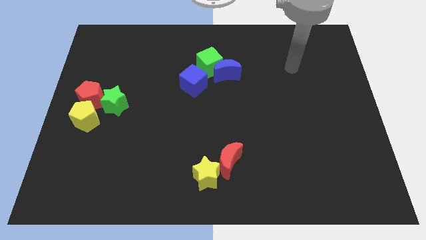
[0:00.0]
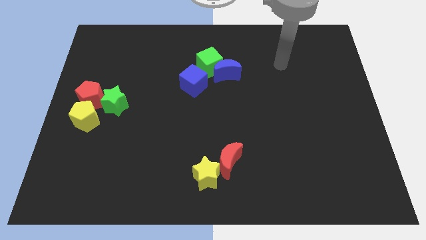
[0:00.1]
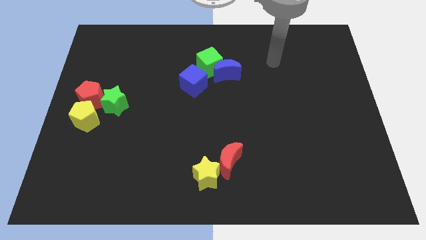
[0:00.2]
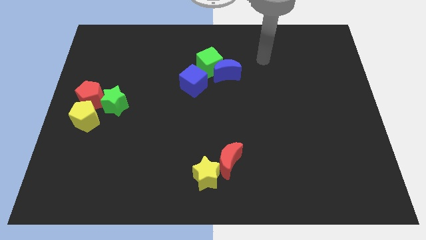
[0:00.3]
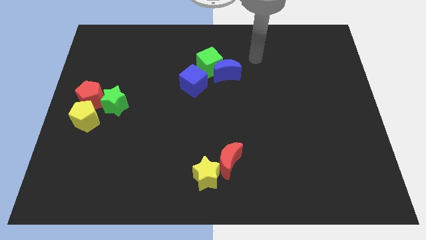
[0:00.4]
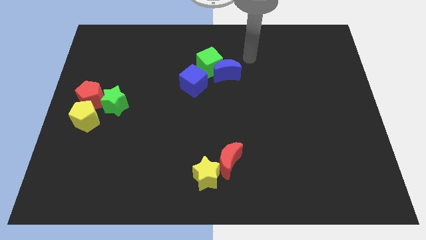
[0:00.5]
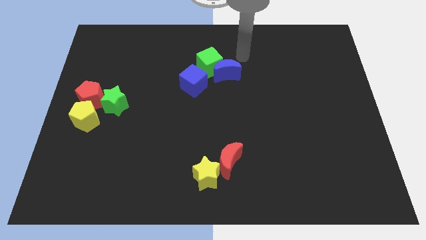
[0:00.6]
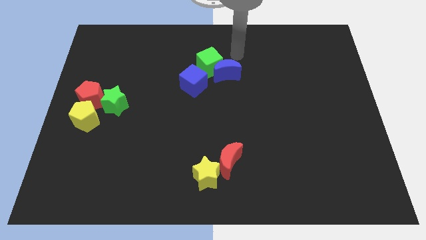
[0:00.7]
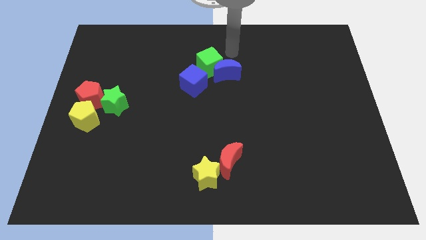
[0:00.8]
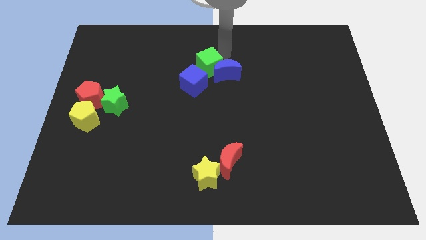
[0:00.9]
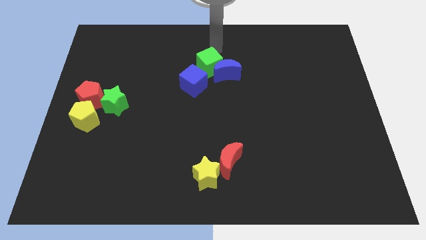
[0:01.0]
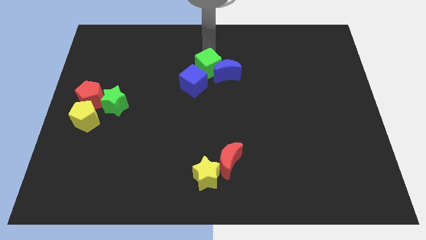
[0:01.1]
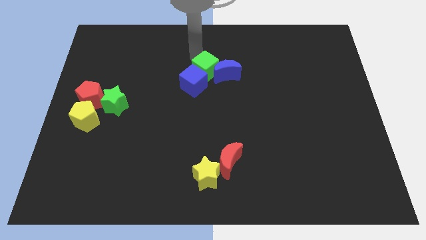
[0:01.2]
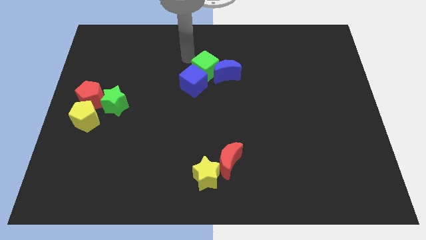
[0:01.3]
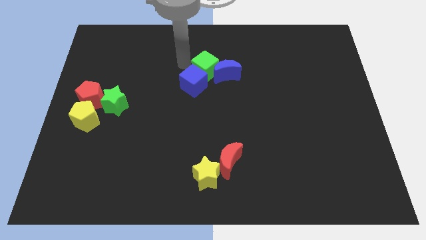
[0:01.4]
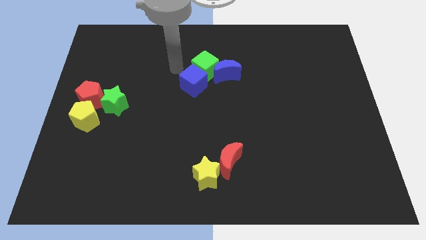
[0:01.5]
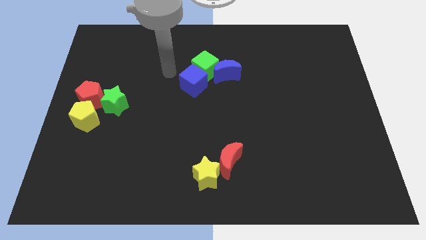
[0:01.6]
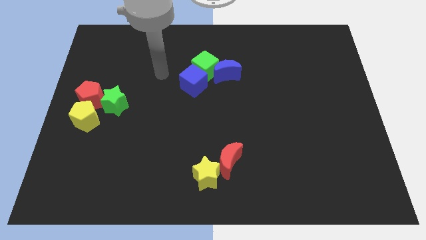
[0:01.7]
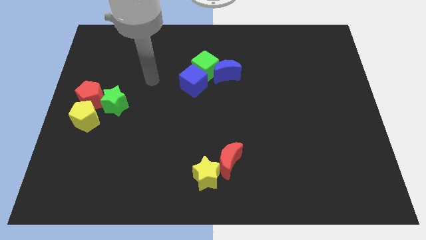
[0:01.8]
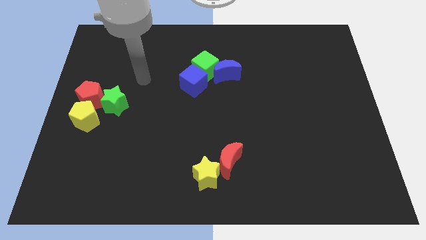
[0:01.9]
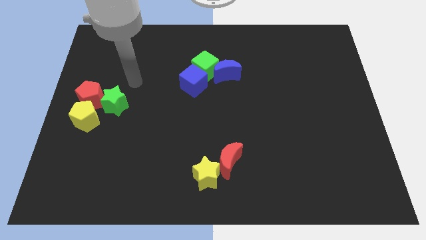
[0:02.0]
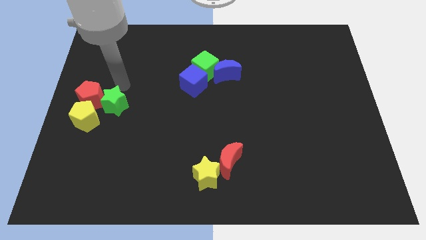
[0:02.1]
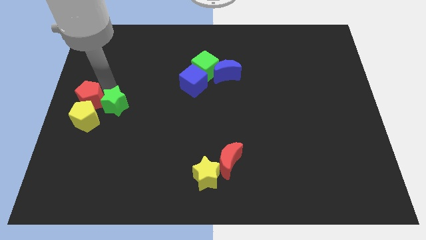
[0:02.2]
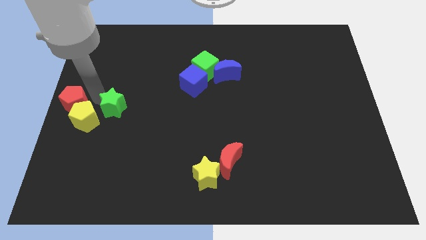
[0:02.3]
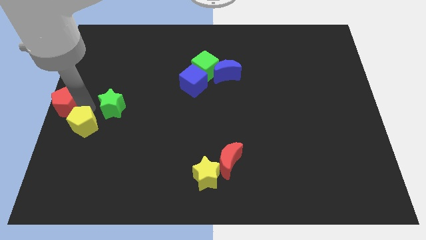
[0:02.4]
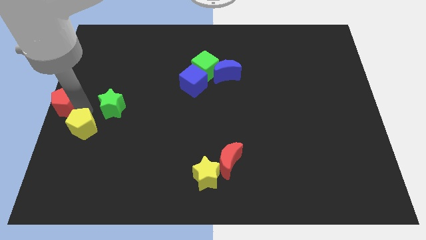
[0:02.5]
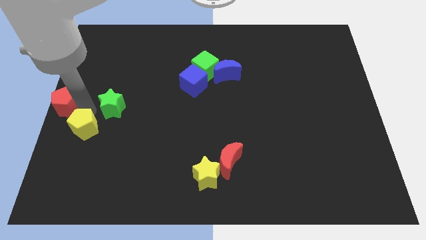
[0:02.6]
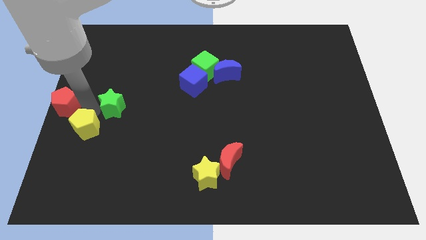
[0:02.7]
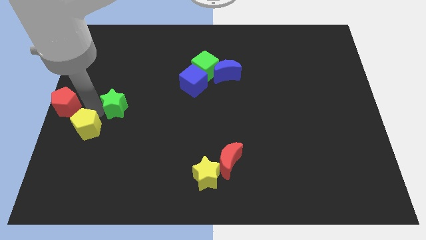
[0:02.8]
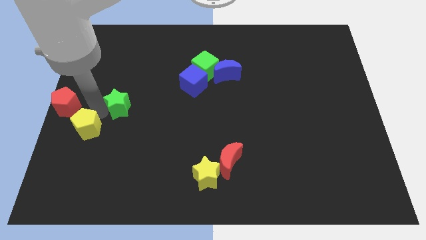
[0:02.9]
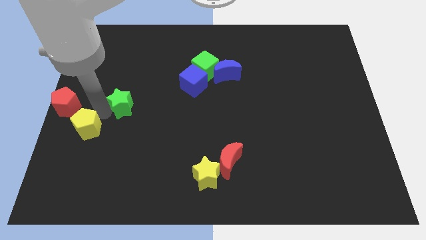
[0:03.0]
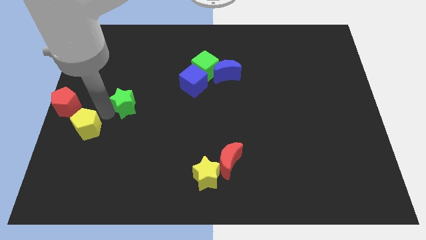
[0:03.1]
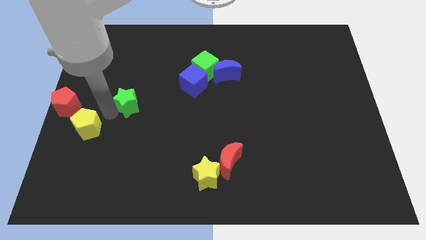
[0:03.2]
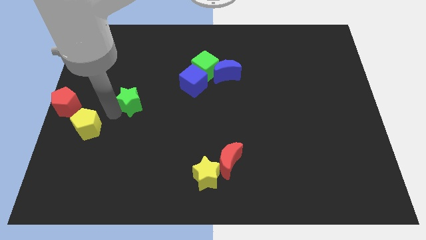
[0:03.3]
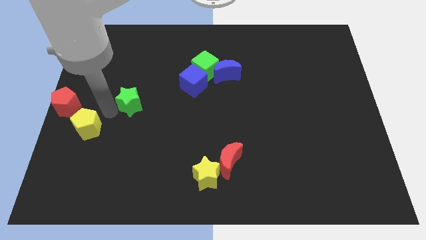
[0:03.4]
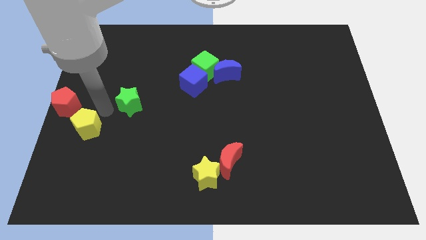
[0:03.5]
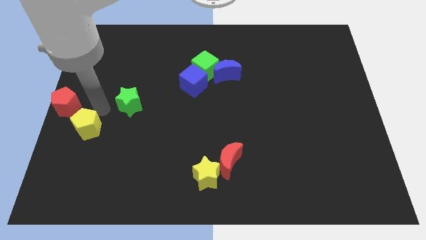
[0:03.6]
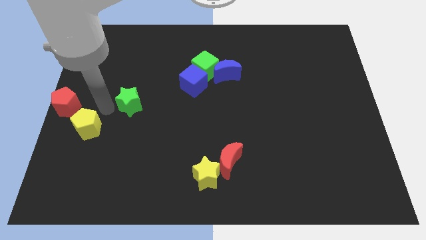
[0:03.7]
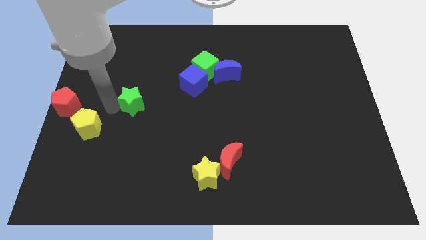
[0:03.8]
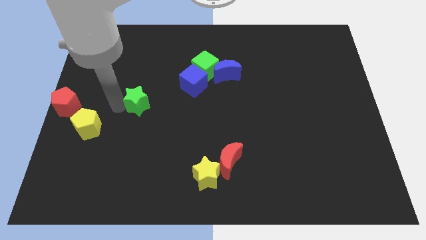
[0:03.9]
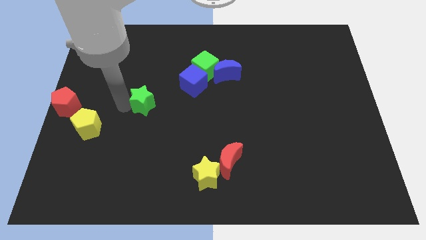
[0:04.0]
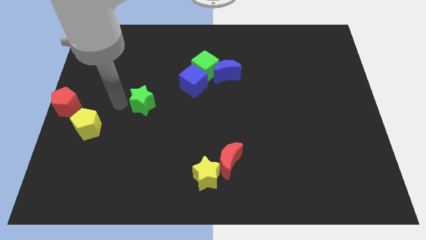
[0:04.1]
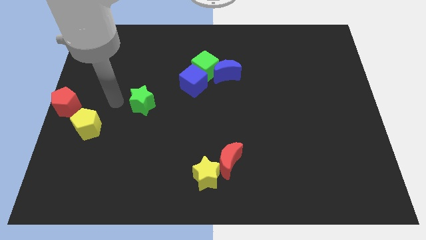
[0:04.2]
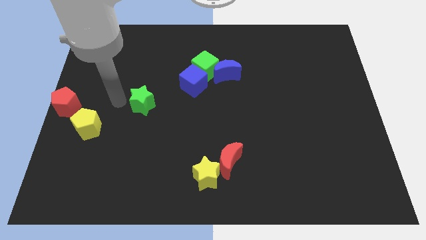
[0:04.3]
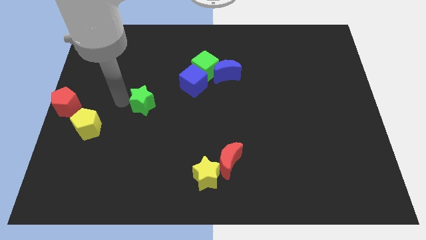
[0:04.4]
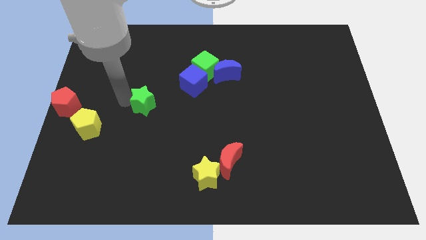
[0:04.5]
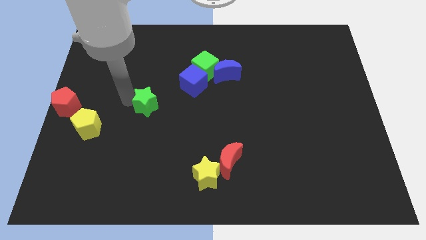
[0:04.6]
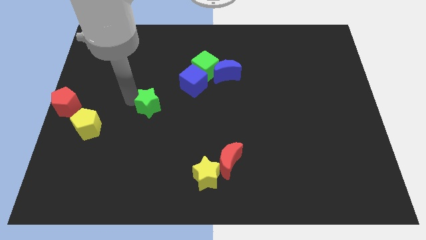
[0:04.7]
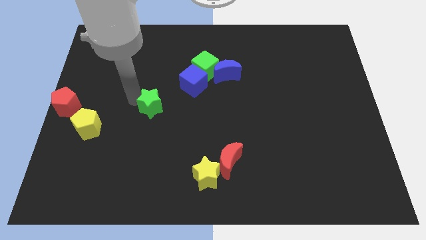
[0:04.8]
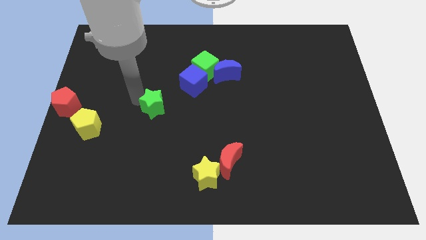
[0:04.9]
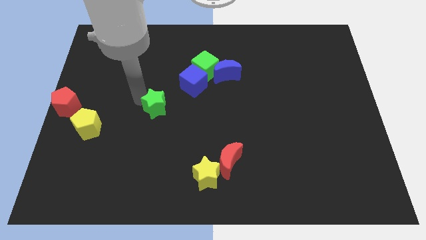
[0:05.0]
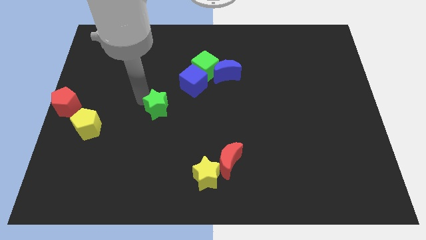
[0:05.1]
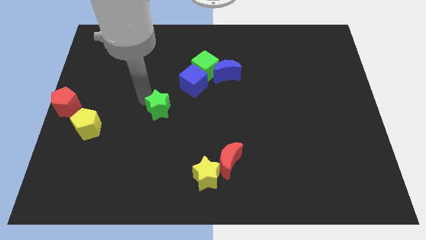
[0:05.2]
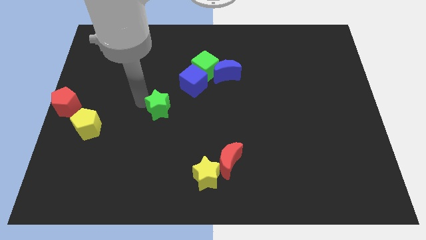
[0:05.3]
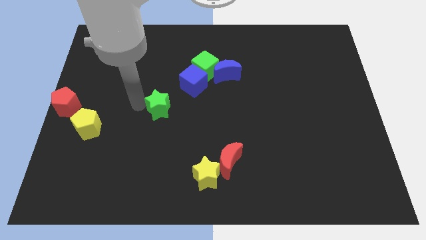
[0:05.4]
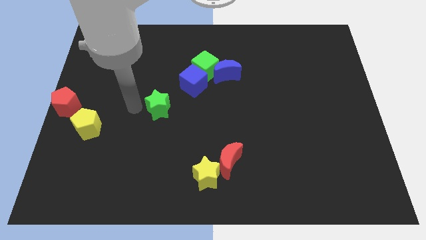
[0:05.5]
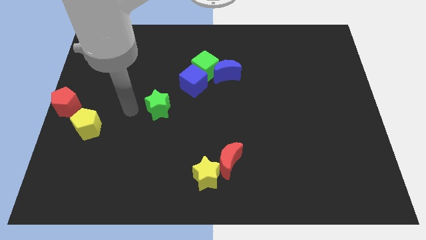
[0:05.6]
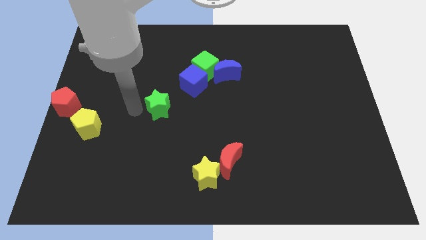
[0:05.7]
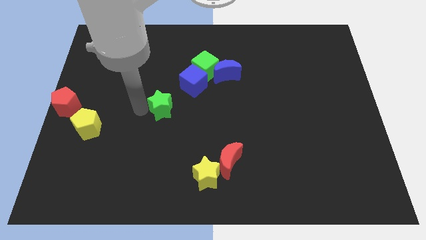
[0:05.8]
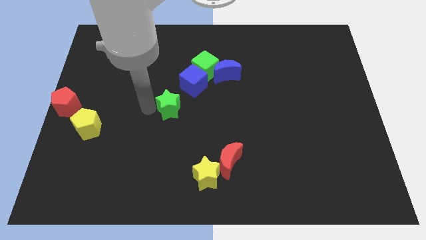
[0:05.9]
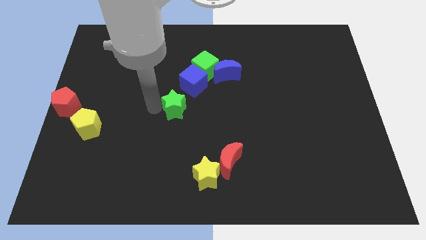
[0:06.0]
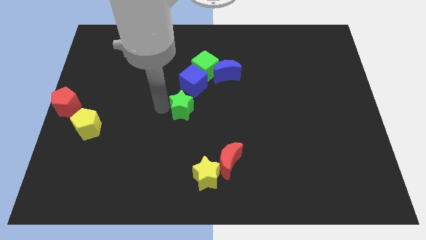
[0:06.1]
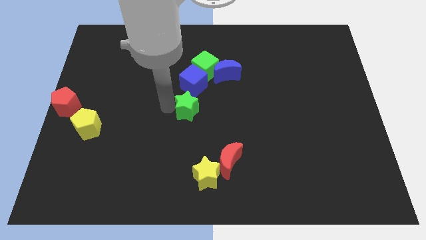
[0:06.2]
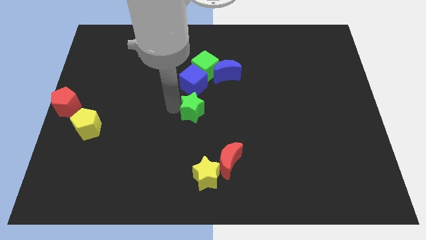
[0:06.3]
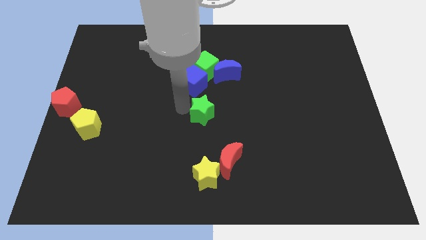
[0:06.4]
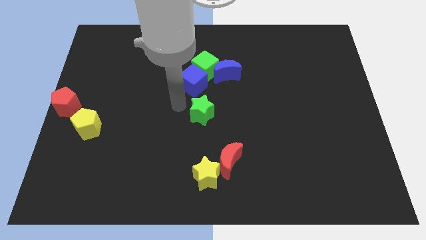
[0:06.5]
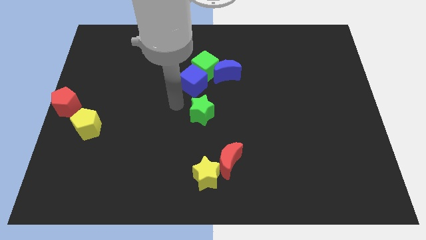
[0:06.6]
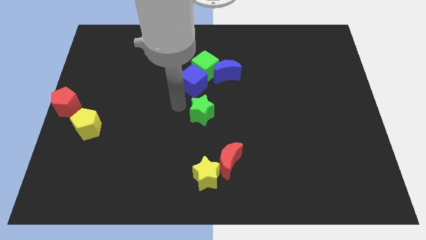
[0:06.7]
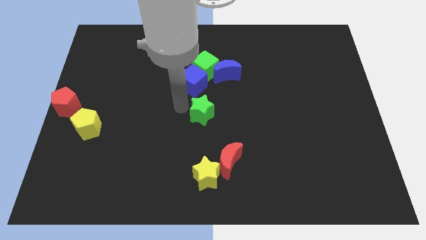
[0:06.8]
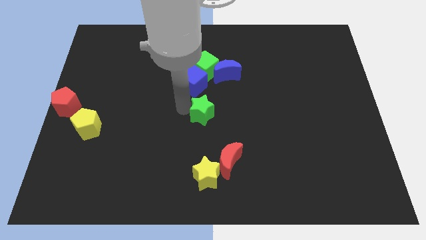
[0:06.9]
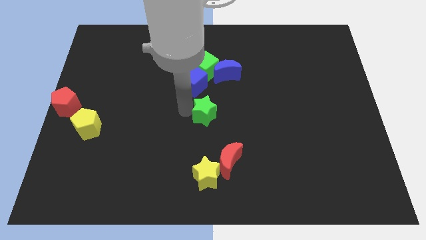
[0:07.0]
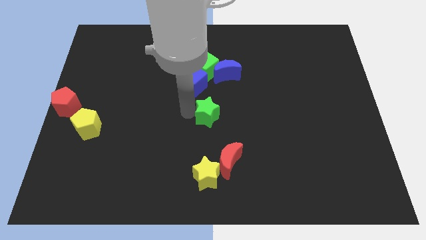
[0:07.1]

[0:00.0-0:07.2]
put the green star to the top of the red moon
